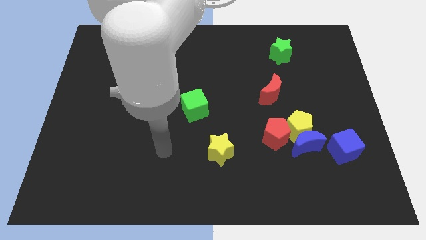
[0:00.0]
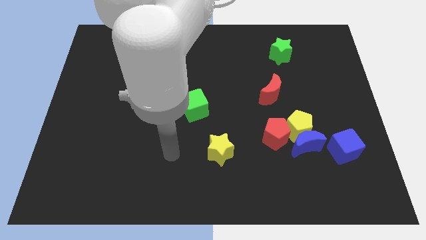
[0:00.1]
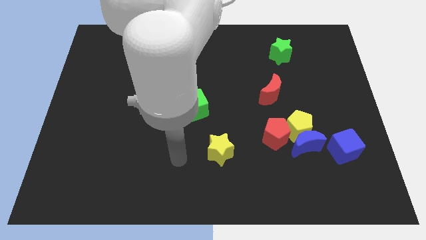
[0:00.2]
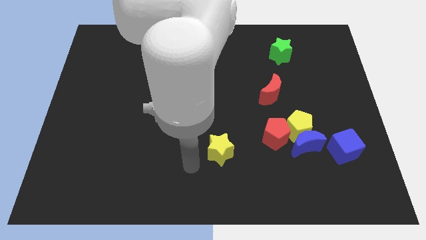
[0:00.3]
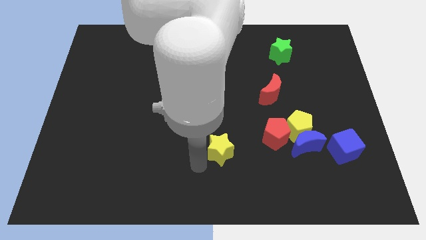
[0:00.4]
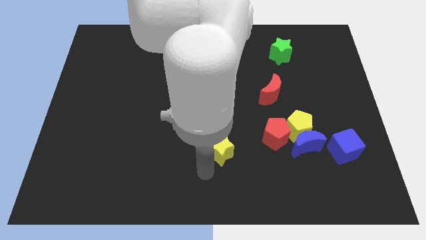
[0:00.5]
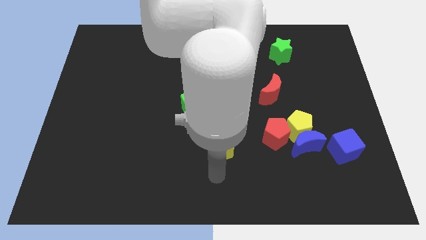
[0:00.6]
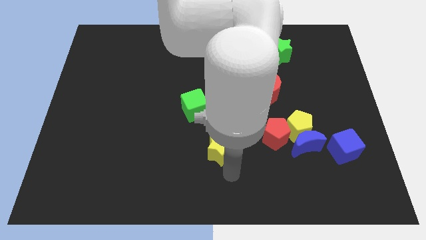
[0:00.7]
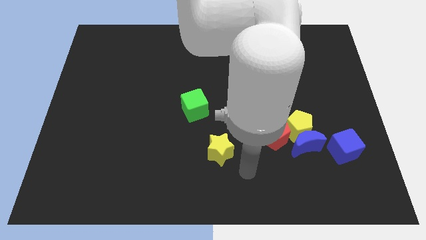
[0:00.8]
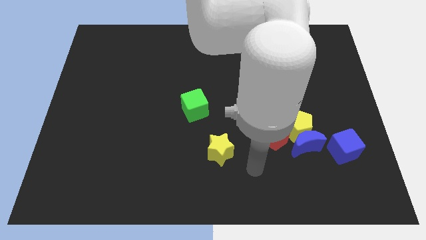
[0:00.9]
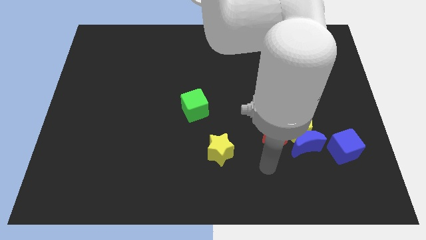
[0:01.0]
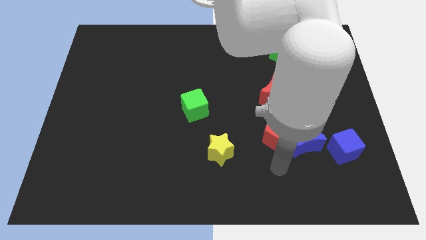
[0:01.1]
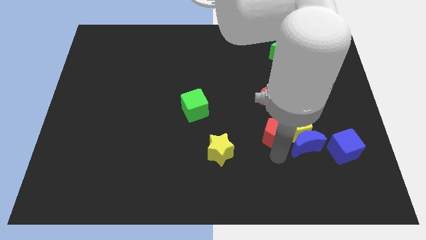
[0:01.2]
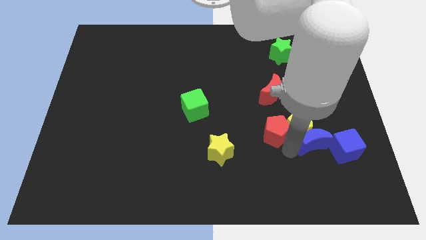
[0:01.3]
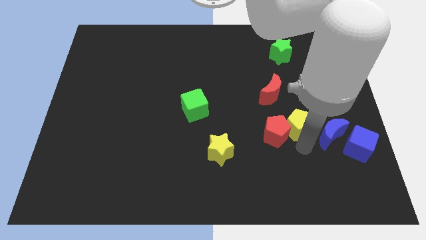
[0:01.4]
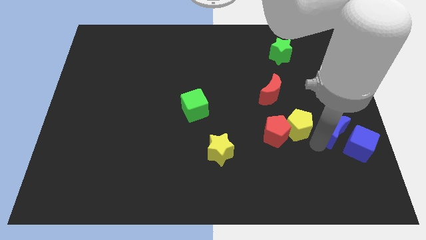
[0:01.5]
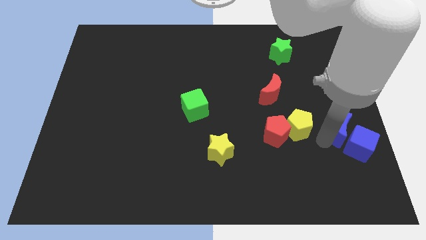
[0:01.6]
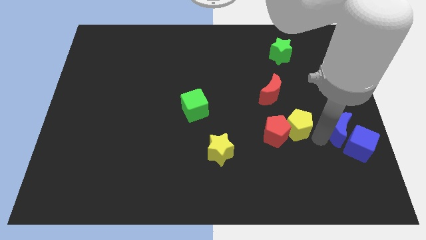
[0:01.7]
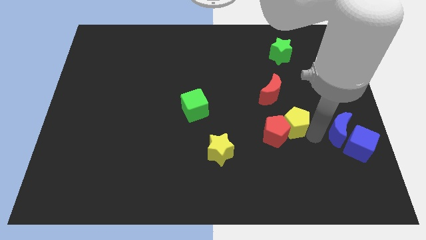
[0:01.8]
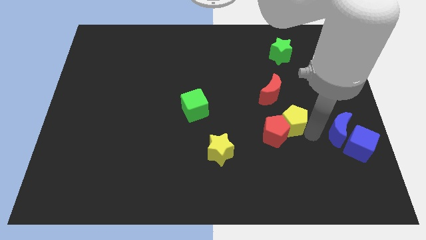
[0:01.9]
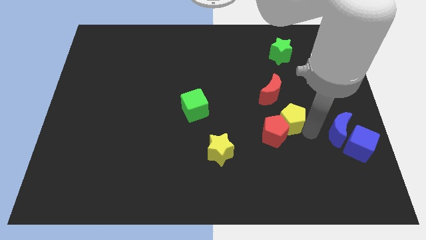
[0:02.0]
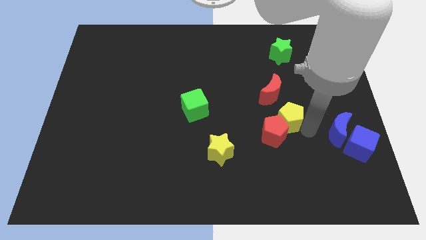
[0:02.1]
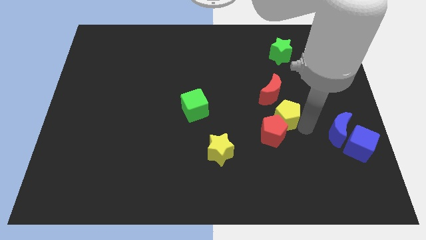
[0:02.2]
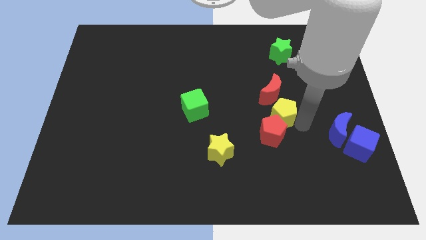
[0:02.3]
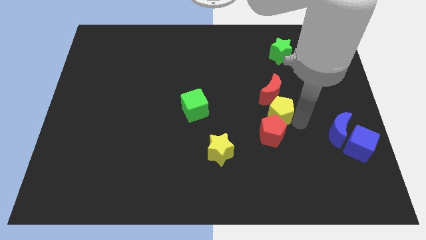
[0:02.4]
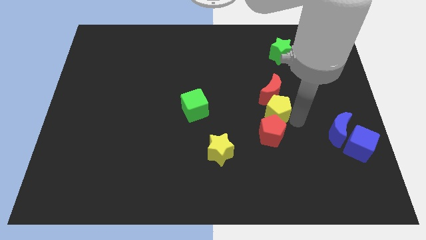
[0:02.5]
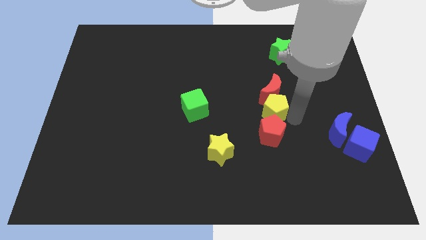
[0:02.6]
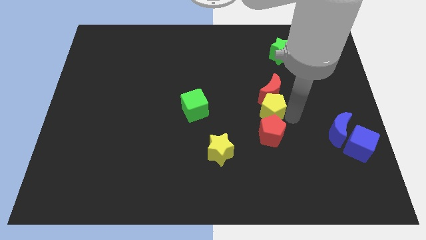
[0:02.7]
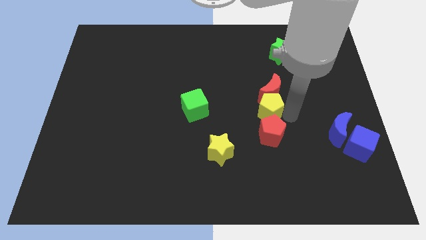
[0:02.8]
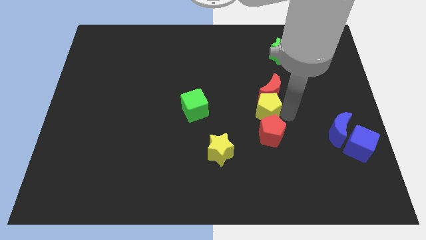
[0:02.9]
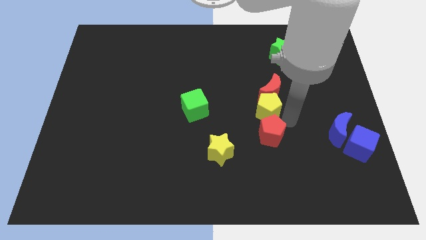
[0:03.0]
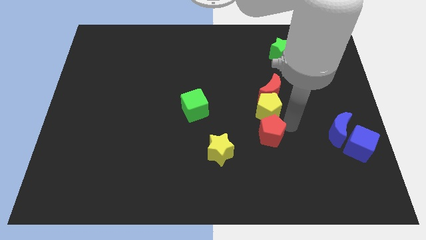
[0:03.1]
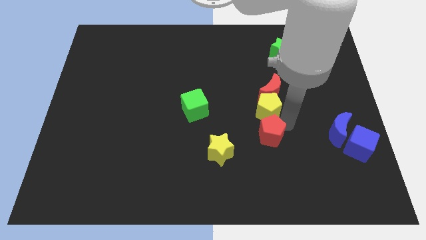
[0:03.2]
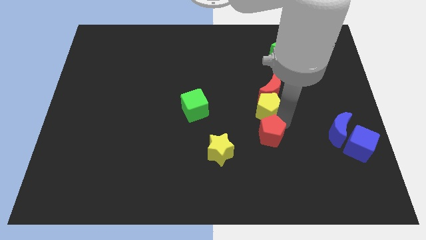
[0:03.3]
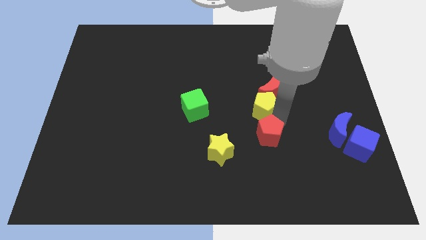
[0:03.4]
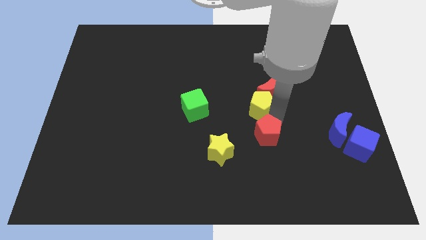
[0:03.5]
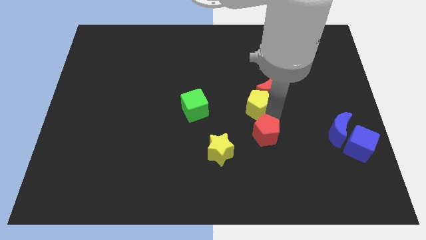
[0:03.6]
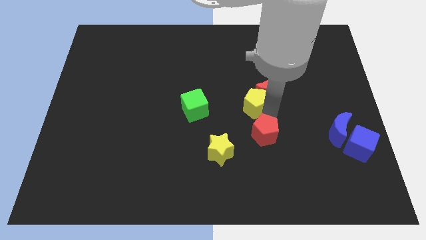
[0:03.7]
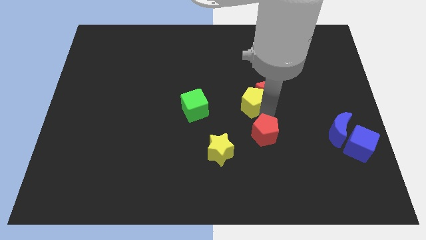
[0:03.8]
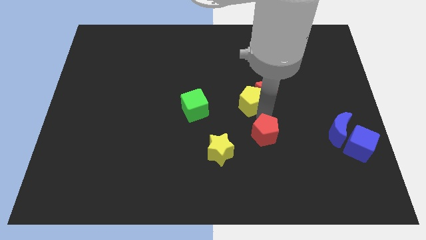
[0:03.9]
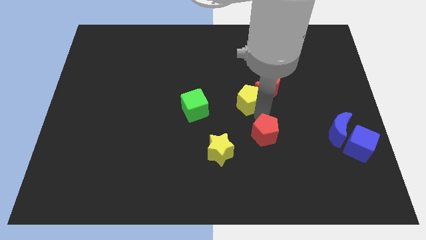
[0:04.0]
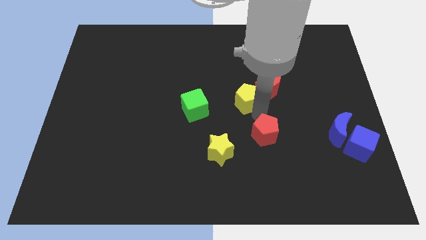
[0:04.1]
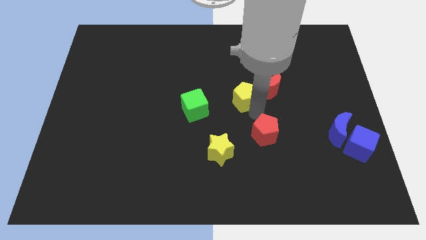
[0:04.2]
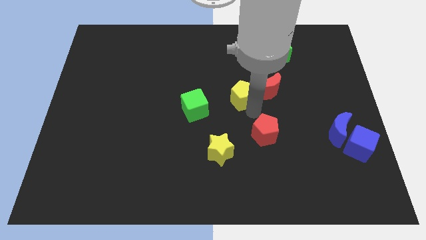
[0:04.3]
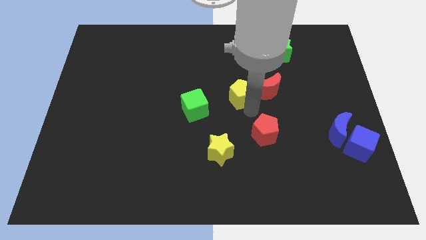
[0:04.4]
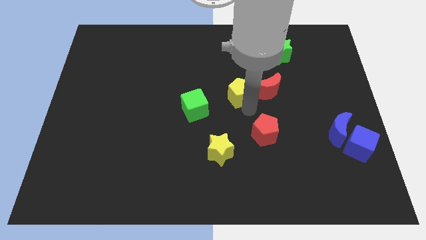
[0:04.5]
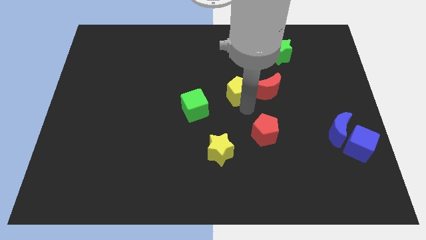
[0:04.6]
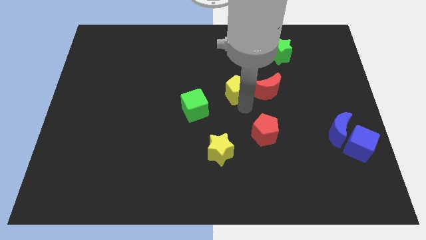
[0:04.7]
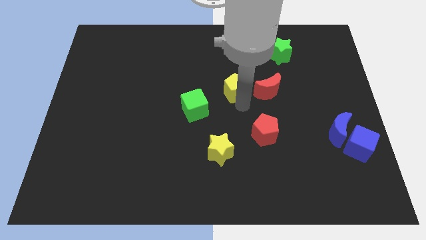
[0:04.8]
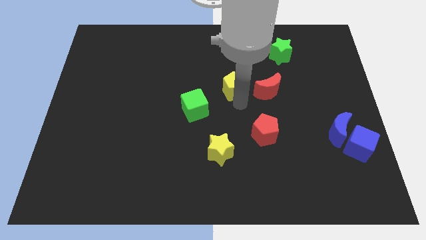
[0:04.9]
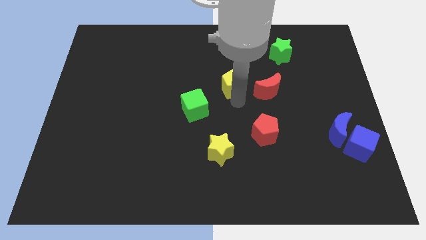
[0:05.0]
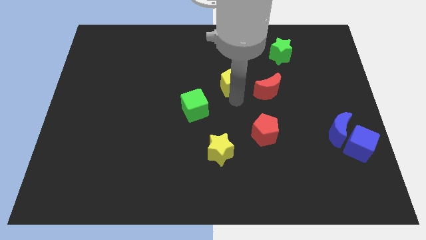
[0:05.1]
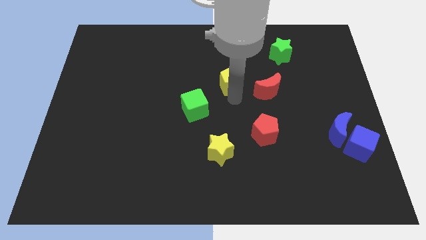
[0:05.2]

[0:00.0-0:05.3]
move the yellow pentagon upwards and then to the left

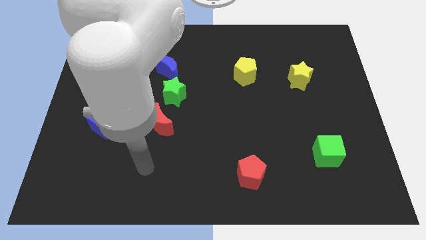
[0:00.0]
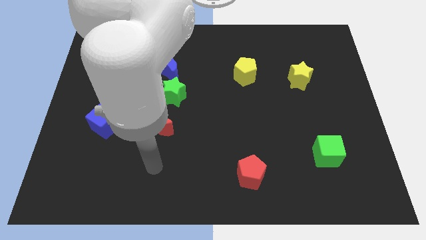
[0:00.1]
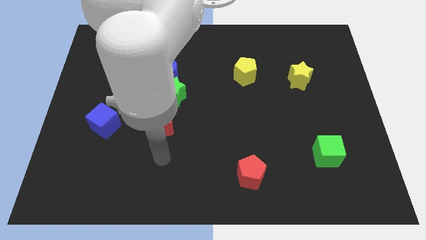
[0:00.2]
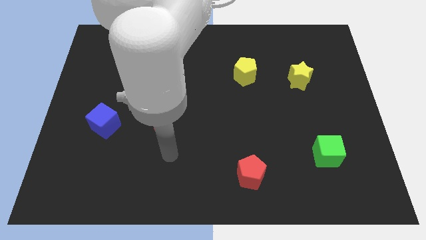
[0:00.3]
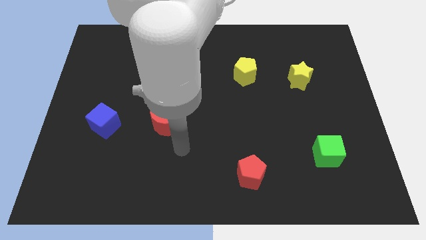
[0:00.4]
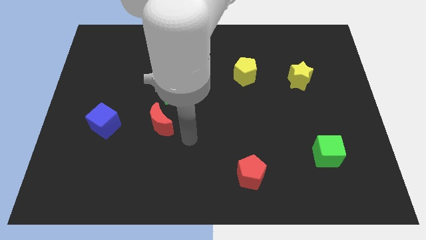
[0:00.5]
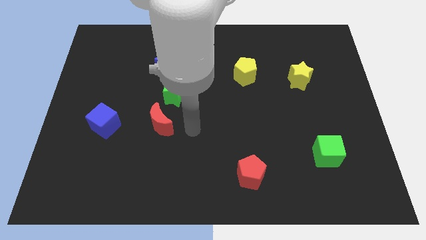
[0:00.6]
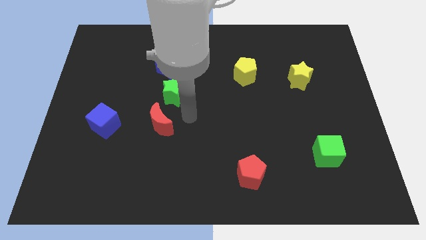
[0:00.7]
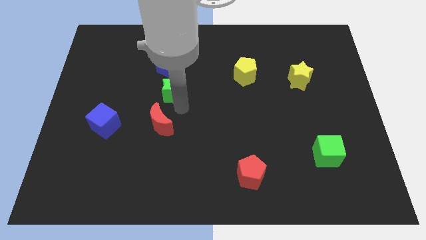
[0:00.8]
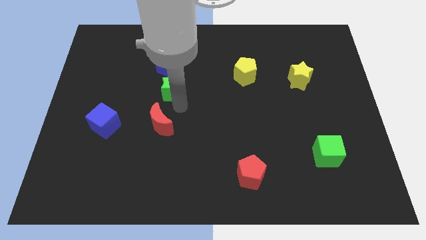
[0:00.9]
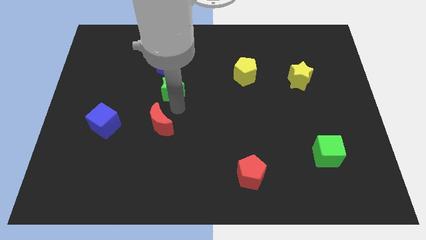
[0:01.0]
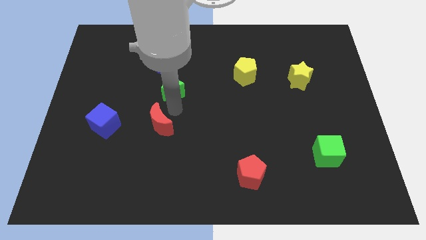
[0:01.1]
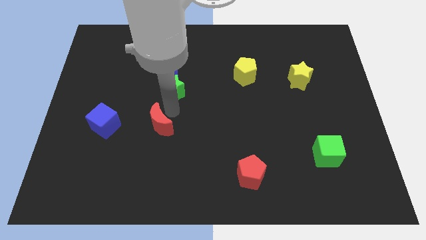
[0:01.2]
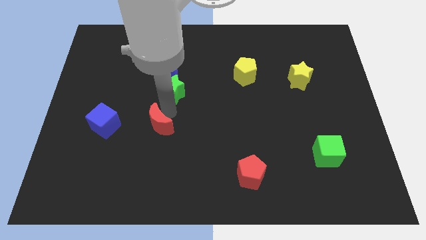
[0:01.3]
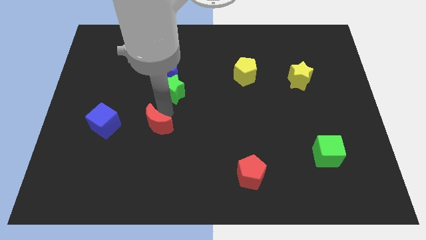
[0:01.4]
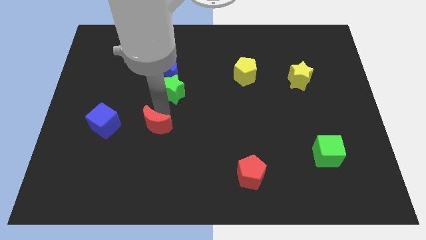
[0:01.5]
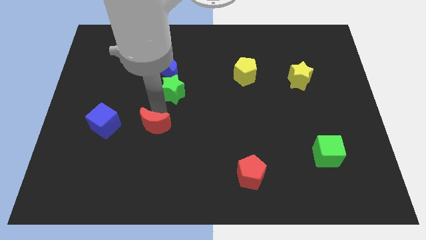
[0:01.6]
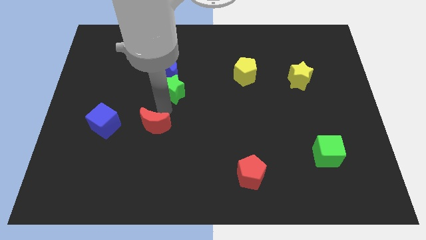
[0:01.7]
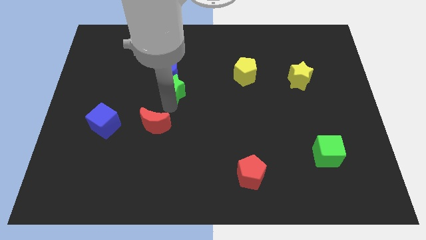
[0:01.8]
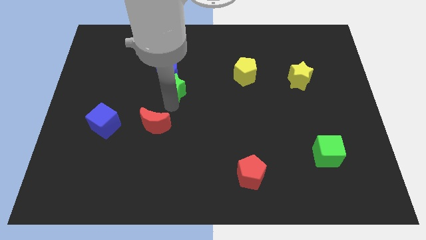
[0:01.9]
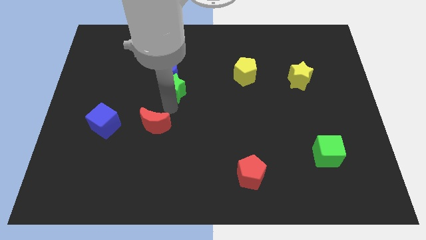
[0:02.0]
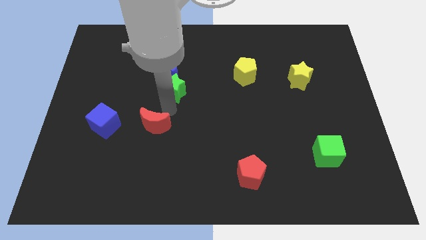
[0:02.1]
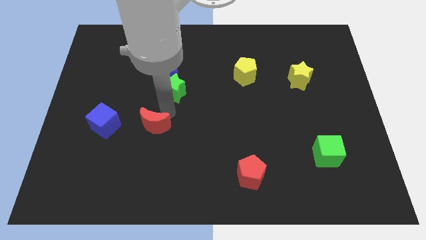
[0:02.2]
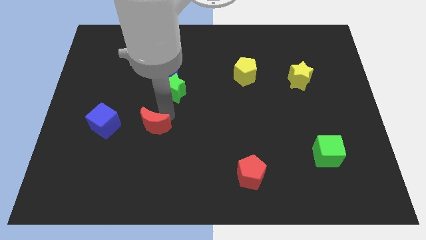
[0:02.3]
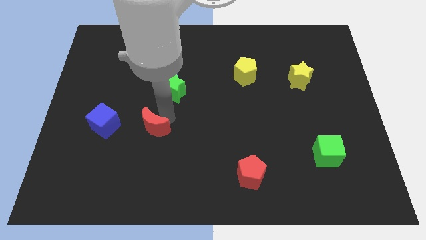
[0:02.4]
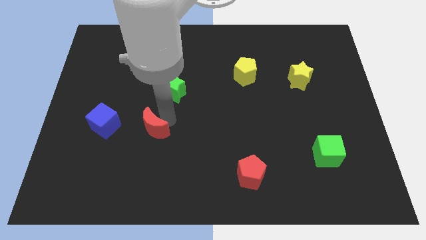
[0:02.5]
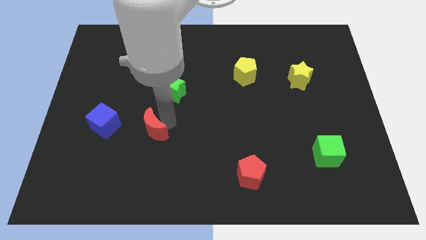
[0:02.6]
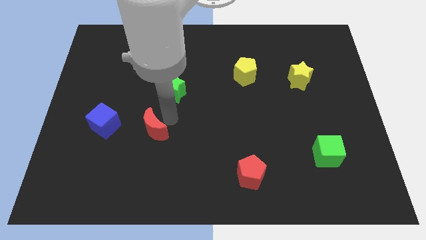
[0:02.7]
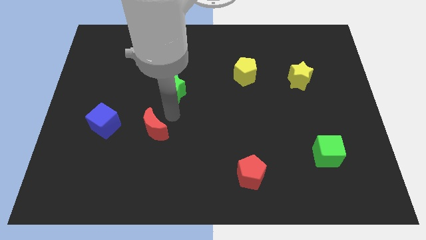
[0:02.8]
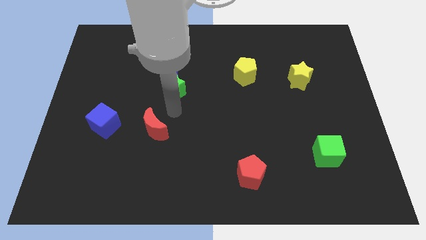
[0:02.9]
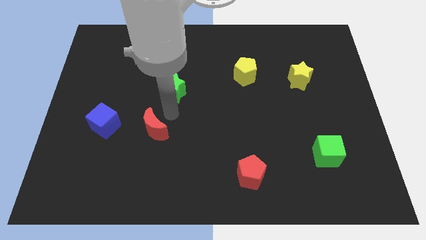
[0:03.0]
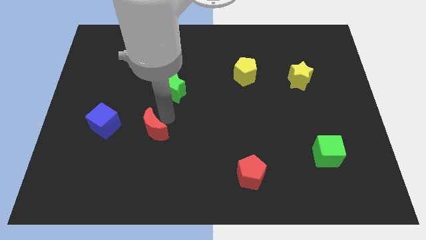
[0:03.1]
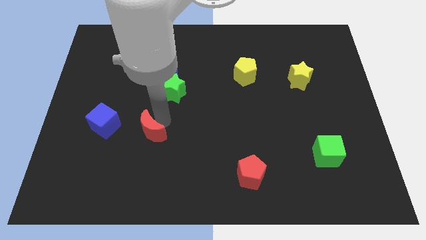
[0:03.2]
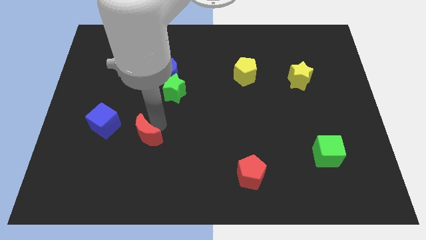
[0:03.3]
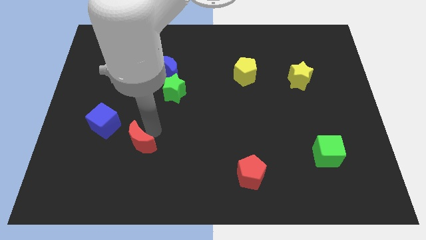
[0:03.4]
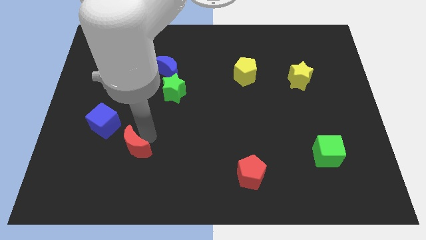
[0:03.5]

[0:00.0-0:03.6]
slightly slide the red moon downwards and then left
